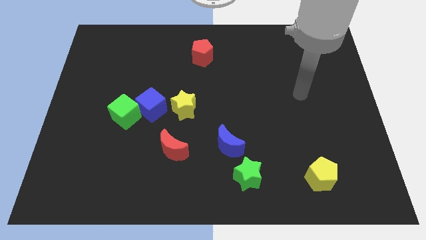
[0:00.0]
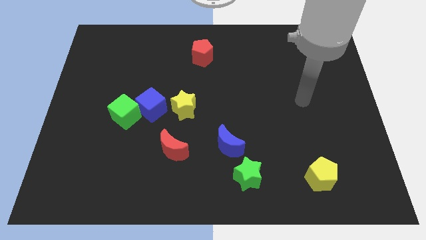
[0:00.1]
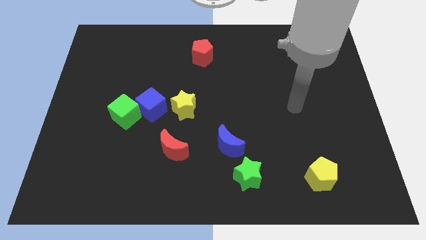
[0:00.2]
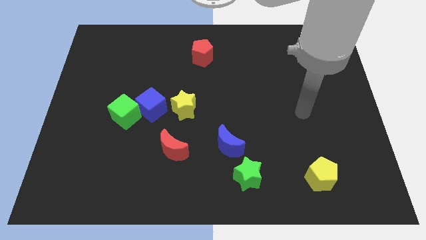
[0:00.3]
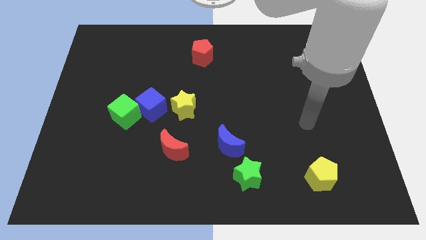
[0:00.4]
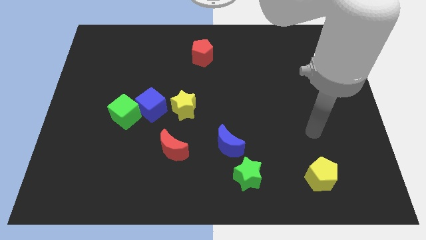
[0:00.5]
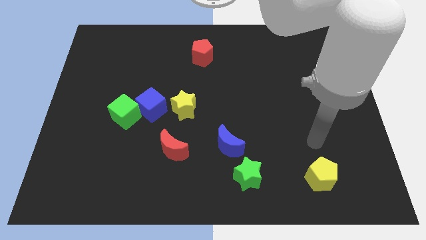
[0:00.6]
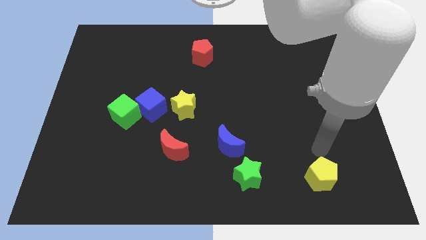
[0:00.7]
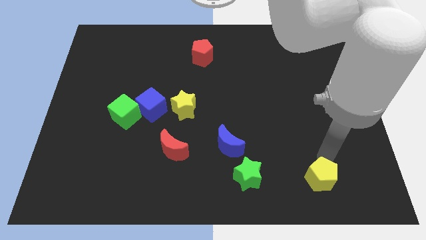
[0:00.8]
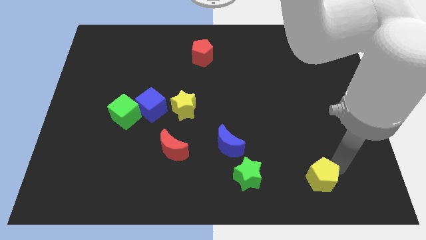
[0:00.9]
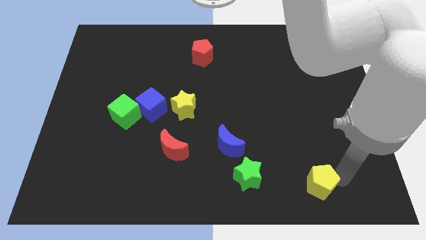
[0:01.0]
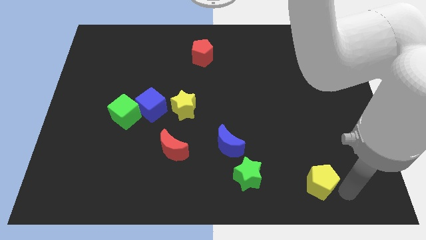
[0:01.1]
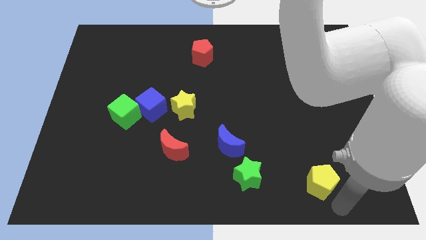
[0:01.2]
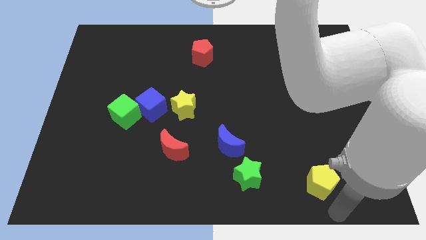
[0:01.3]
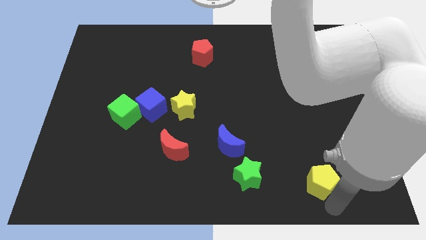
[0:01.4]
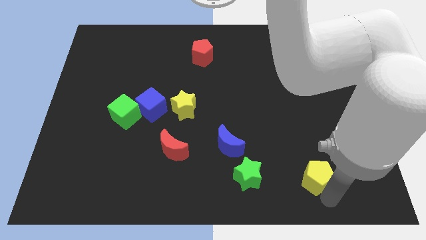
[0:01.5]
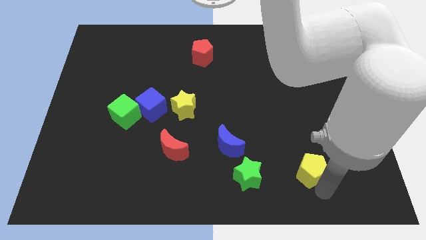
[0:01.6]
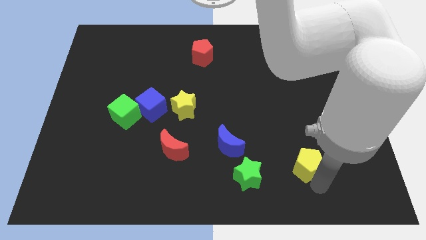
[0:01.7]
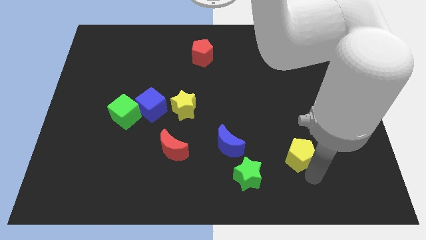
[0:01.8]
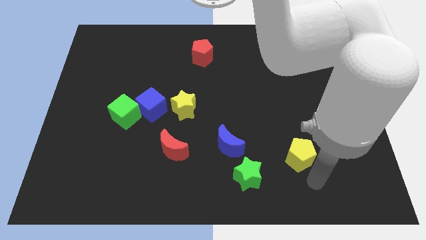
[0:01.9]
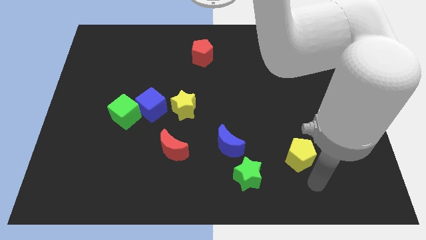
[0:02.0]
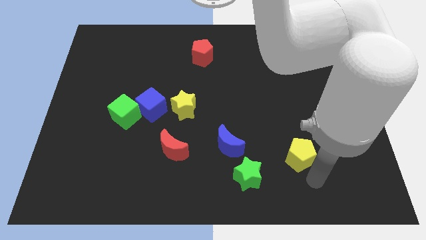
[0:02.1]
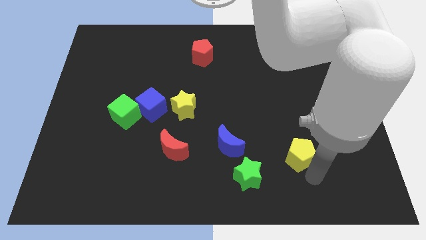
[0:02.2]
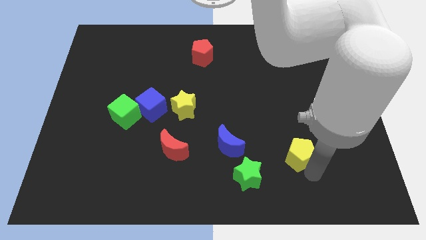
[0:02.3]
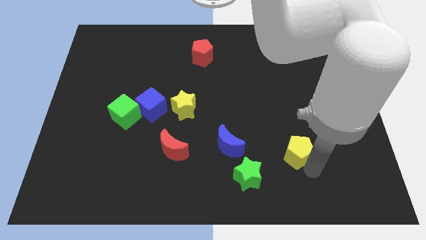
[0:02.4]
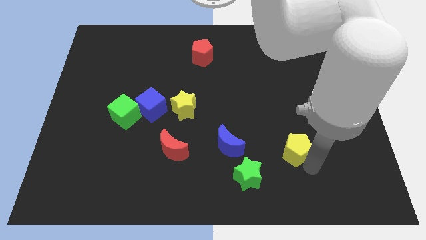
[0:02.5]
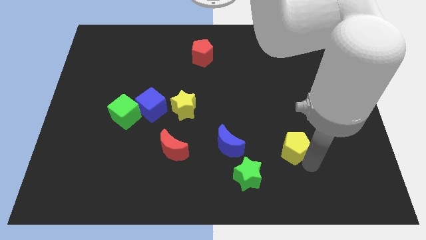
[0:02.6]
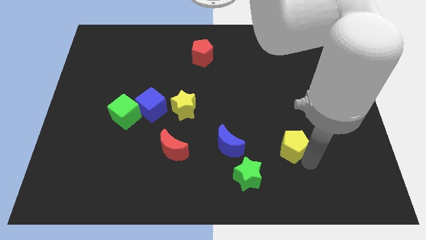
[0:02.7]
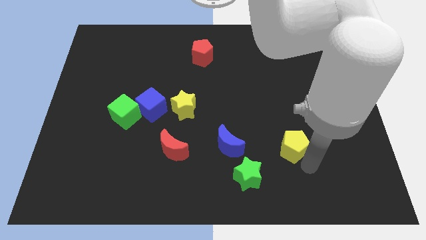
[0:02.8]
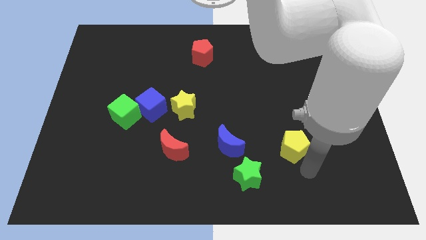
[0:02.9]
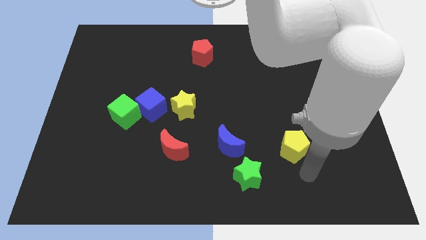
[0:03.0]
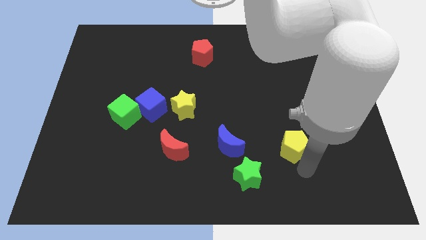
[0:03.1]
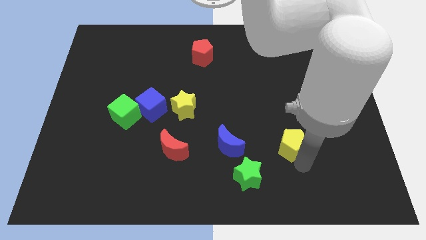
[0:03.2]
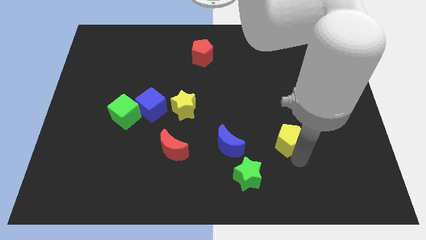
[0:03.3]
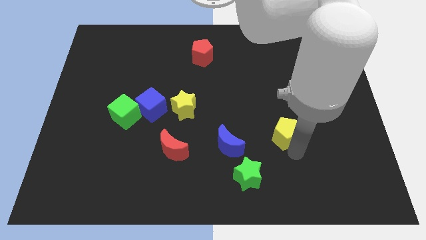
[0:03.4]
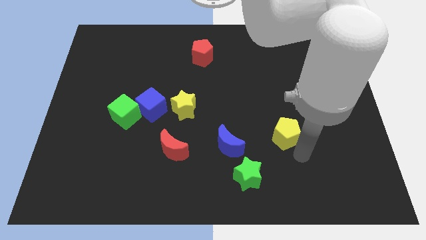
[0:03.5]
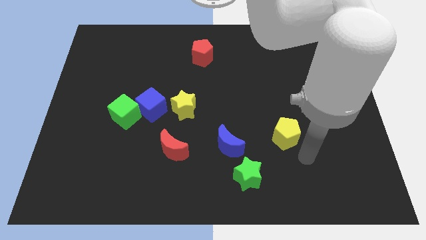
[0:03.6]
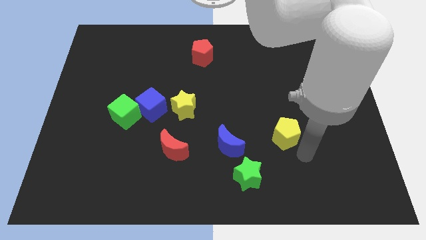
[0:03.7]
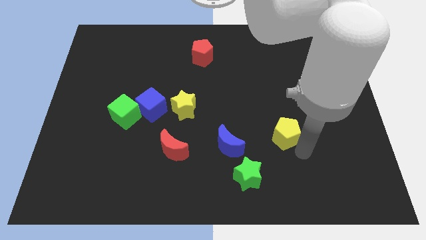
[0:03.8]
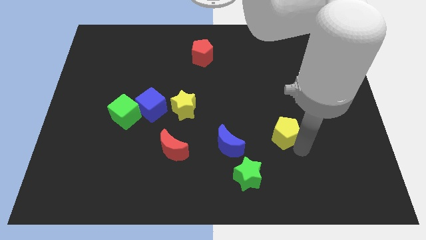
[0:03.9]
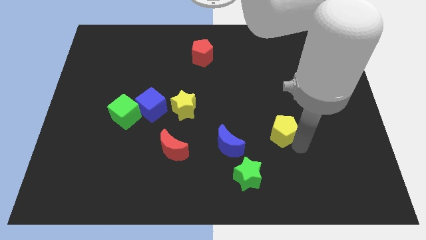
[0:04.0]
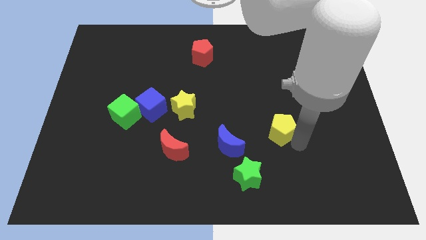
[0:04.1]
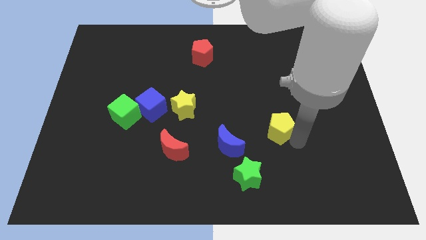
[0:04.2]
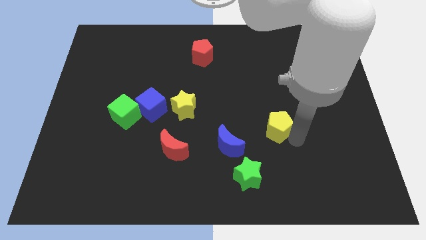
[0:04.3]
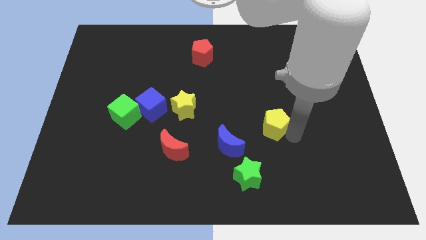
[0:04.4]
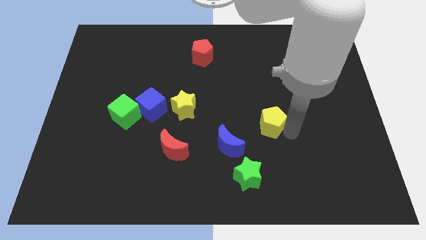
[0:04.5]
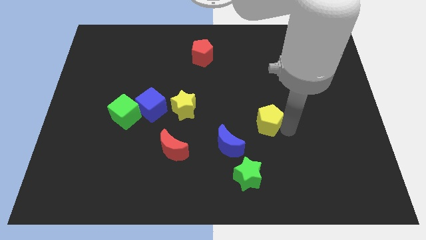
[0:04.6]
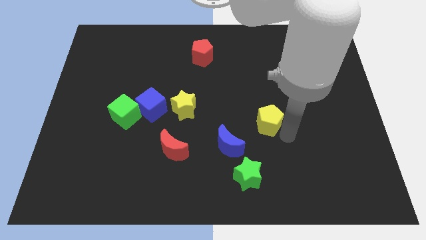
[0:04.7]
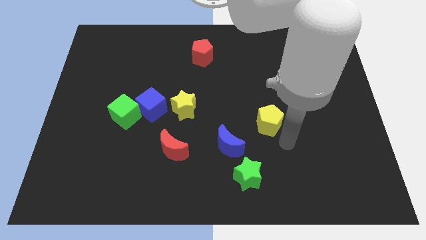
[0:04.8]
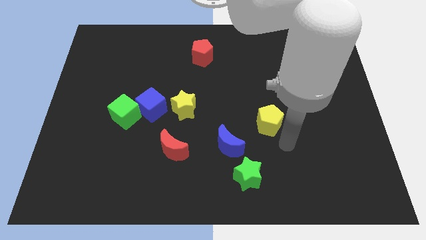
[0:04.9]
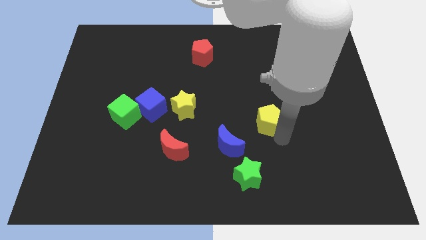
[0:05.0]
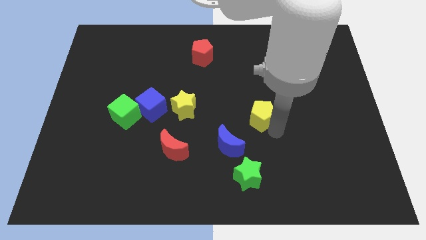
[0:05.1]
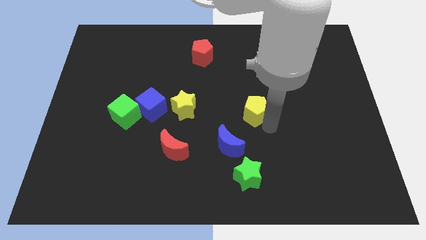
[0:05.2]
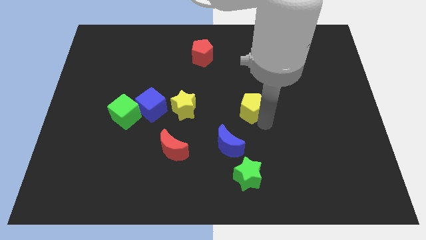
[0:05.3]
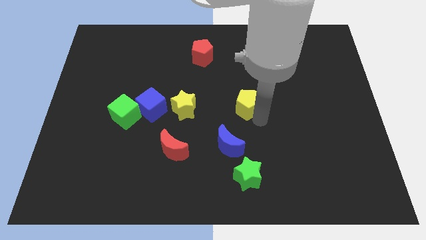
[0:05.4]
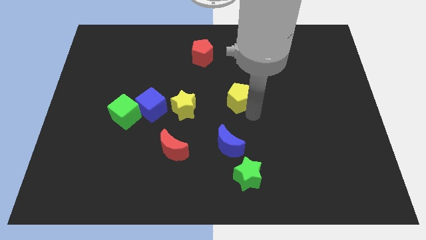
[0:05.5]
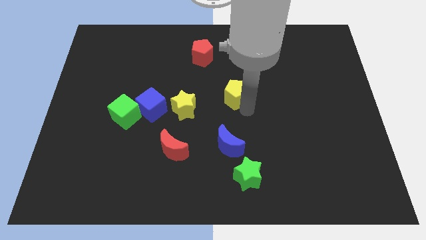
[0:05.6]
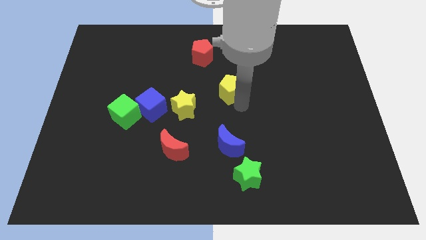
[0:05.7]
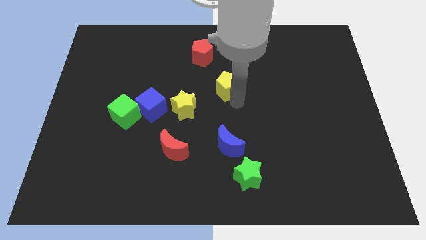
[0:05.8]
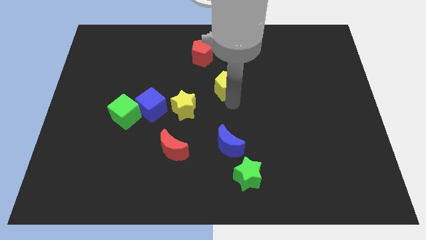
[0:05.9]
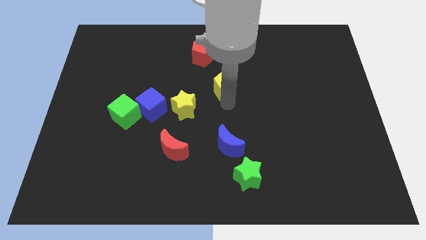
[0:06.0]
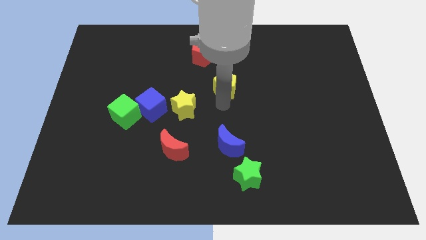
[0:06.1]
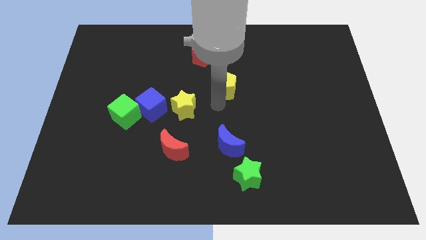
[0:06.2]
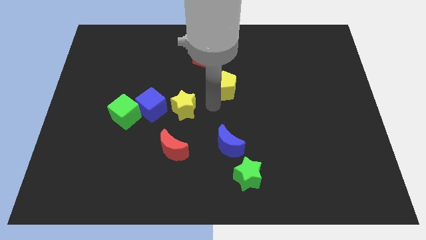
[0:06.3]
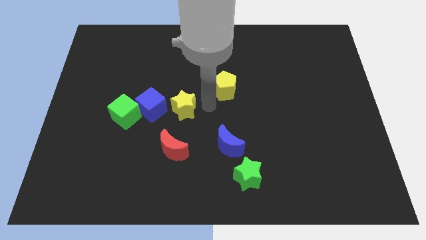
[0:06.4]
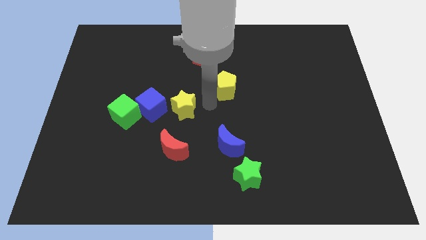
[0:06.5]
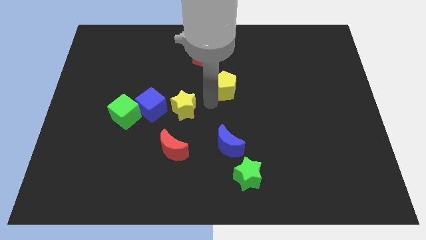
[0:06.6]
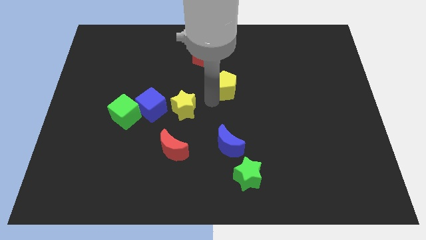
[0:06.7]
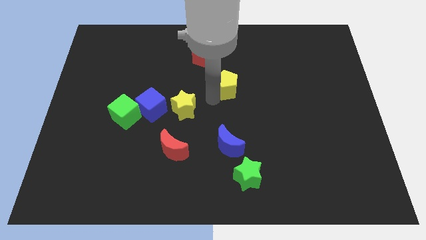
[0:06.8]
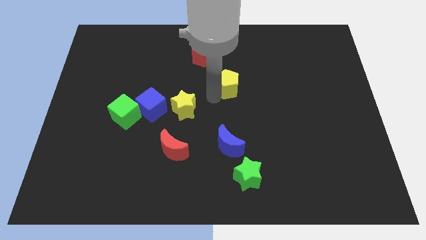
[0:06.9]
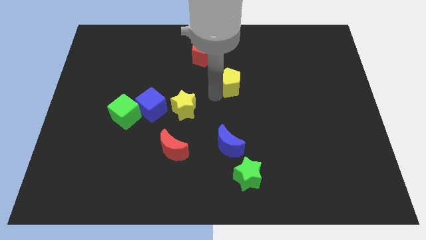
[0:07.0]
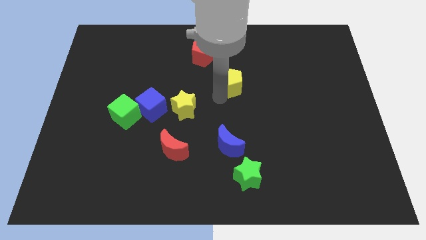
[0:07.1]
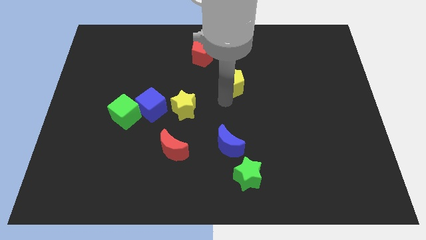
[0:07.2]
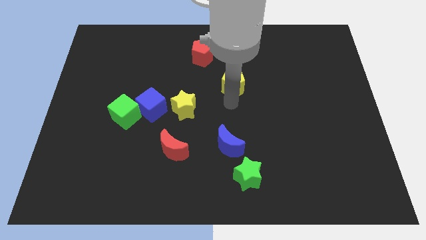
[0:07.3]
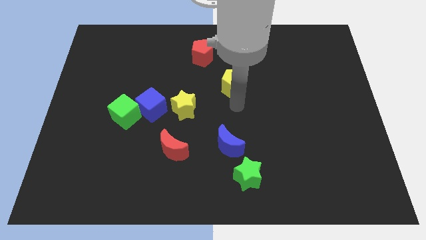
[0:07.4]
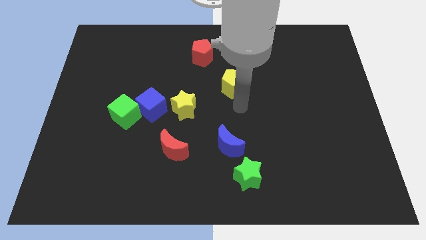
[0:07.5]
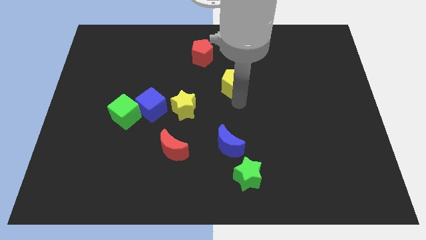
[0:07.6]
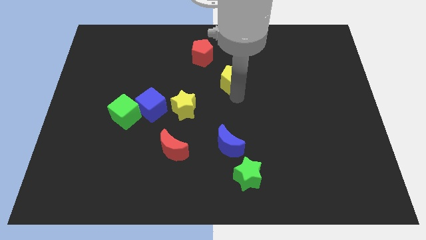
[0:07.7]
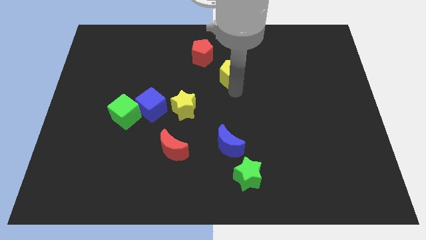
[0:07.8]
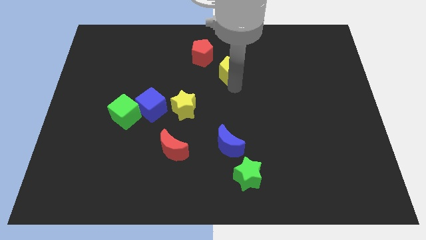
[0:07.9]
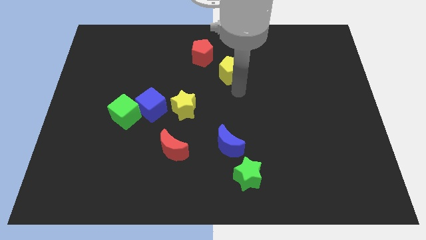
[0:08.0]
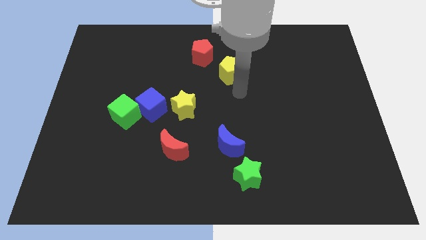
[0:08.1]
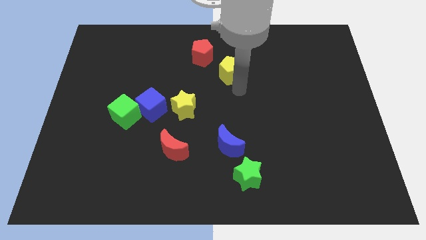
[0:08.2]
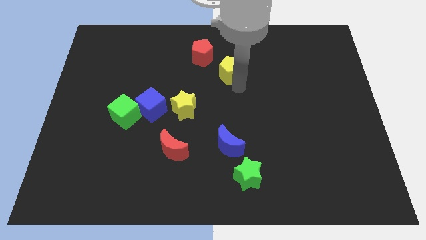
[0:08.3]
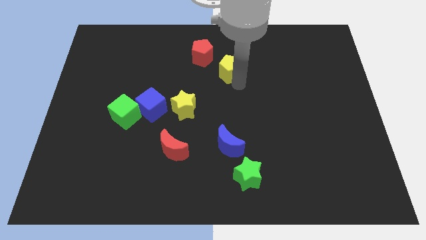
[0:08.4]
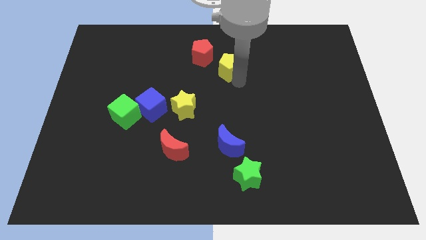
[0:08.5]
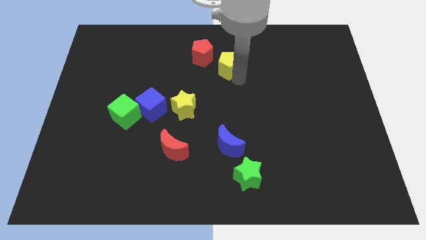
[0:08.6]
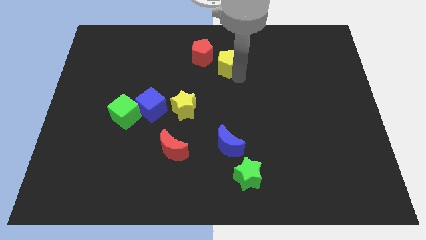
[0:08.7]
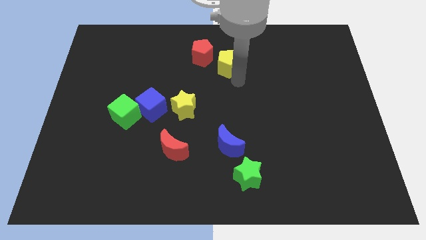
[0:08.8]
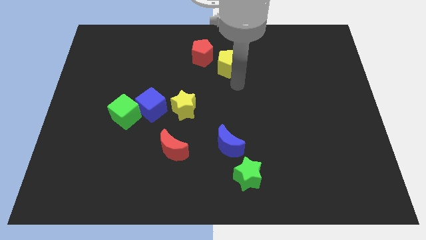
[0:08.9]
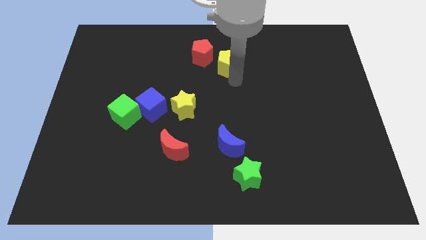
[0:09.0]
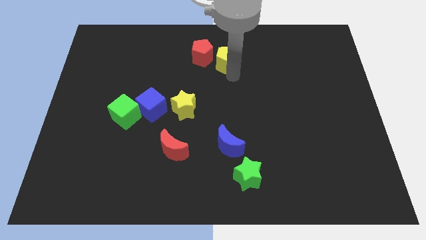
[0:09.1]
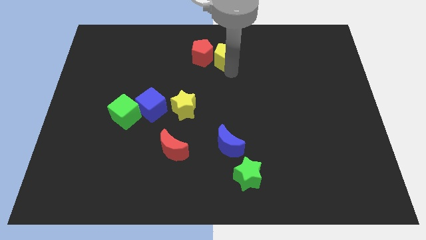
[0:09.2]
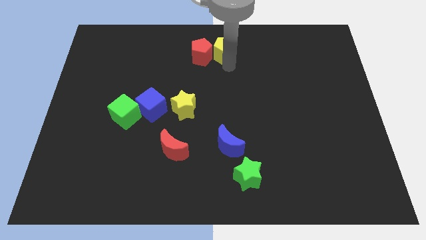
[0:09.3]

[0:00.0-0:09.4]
push the yellow pentagon to the towards your base
